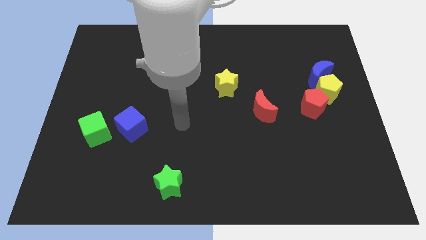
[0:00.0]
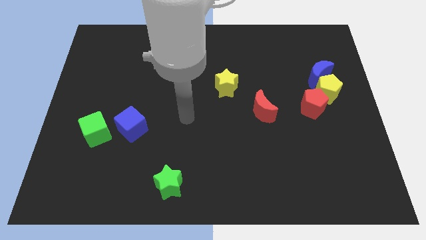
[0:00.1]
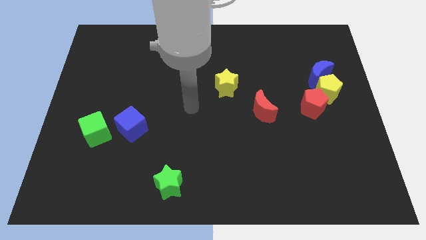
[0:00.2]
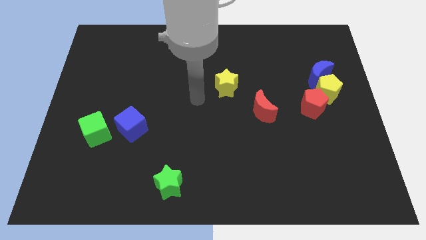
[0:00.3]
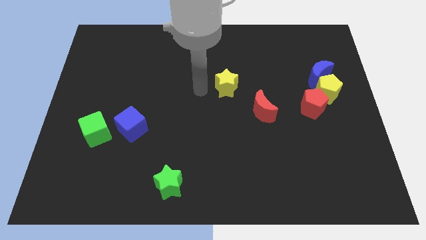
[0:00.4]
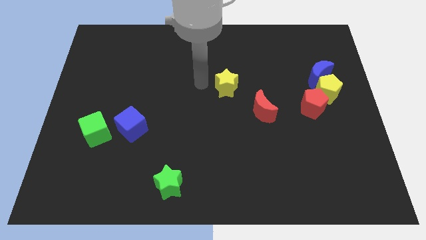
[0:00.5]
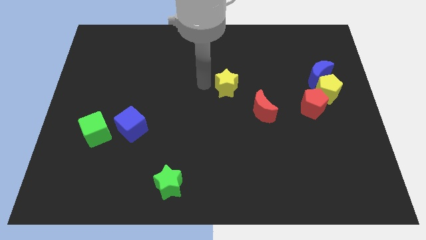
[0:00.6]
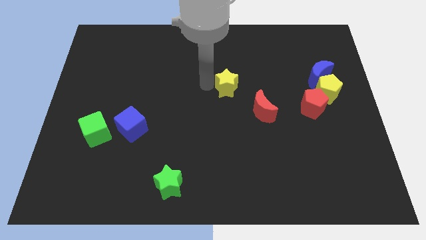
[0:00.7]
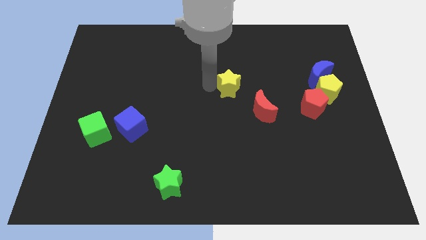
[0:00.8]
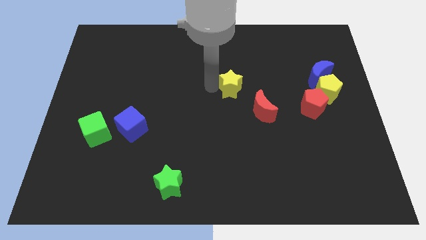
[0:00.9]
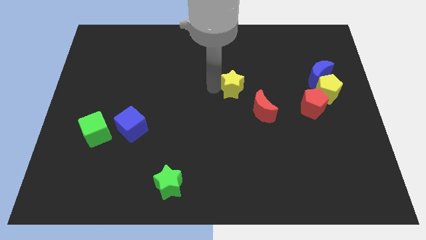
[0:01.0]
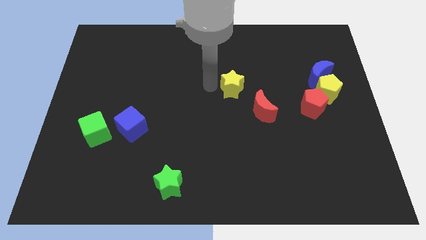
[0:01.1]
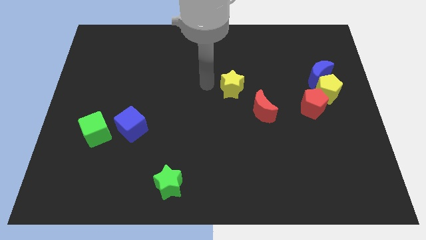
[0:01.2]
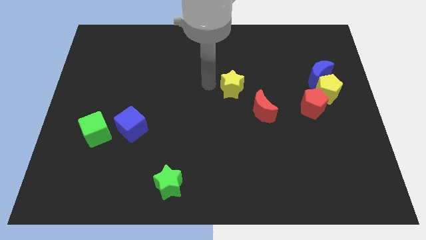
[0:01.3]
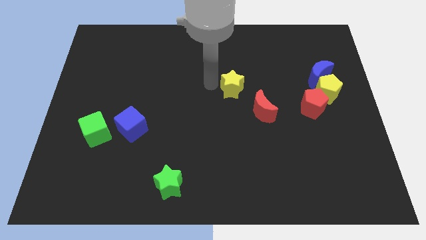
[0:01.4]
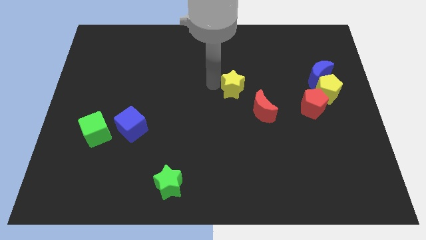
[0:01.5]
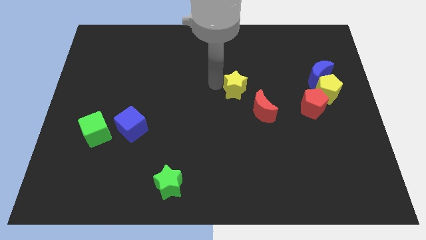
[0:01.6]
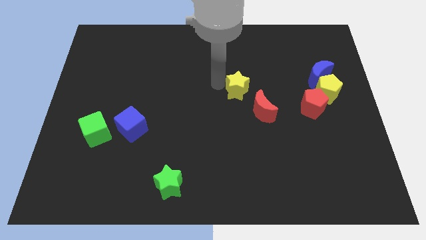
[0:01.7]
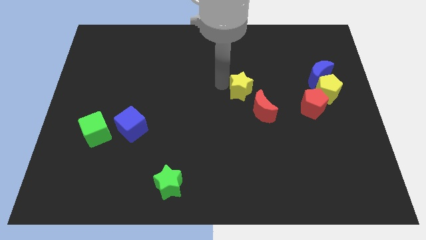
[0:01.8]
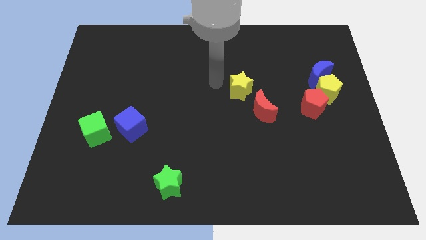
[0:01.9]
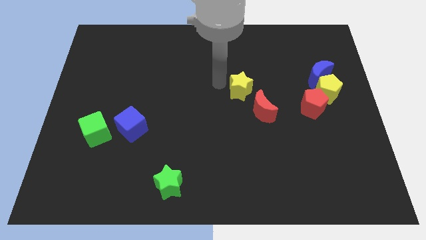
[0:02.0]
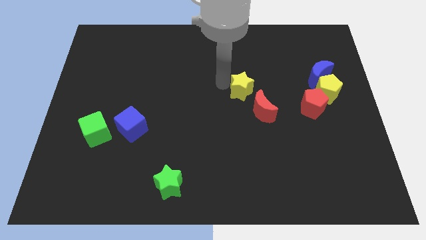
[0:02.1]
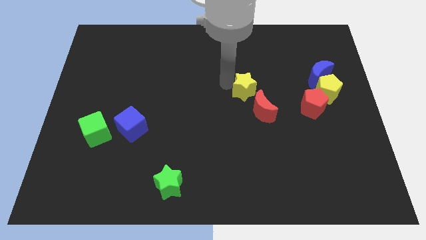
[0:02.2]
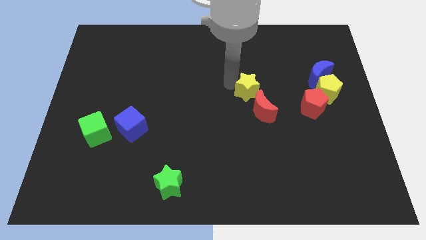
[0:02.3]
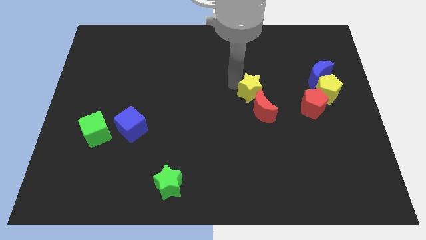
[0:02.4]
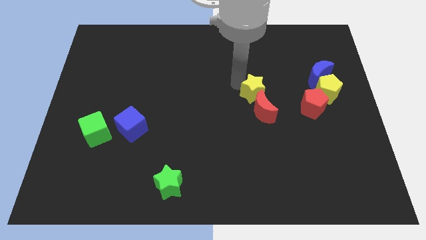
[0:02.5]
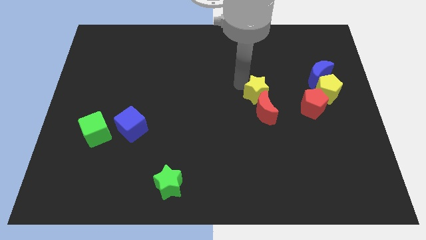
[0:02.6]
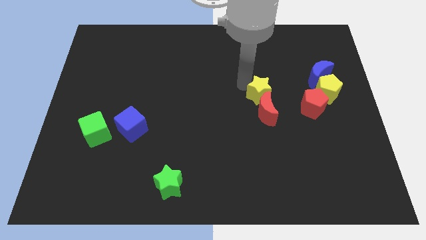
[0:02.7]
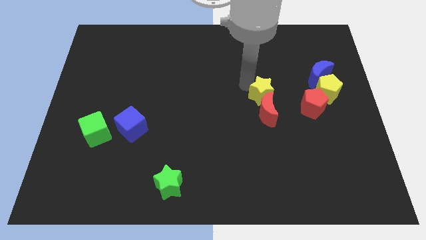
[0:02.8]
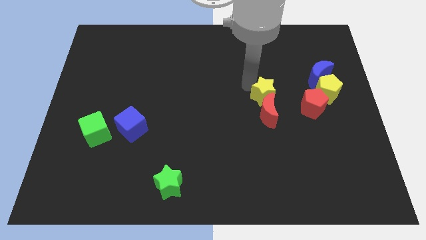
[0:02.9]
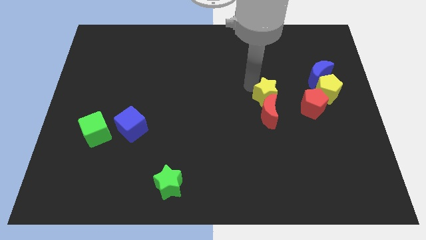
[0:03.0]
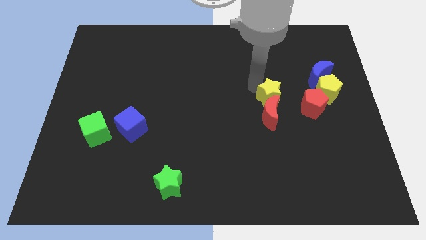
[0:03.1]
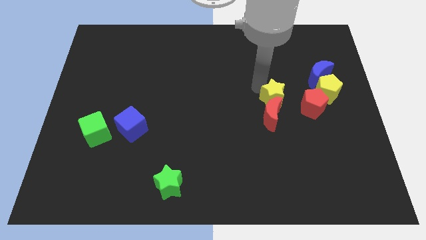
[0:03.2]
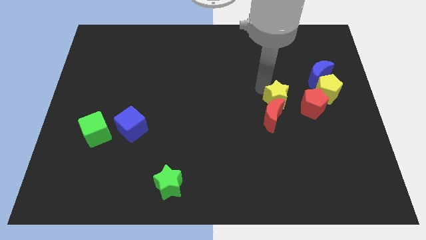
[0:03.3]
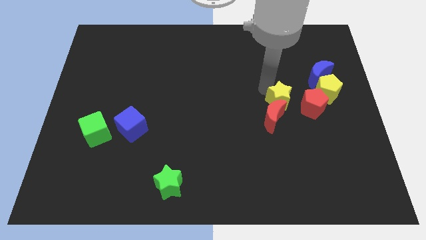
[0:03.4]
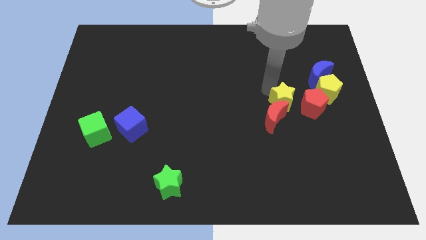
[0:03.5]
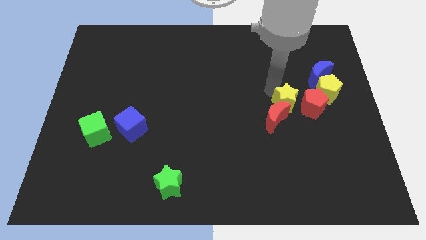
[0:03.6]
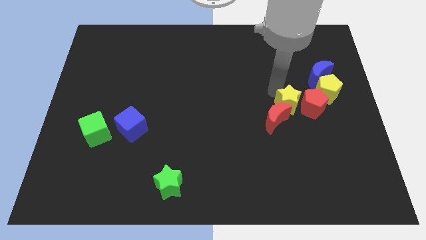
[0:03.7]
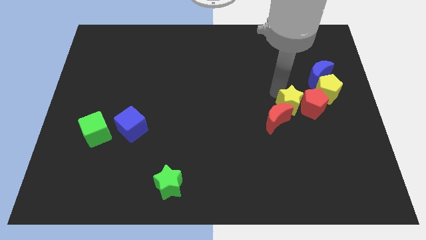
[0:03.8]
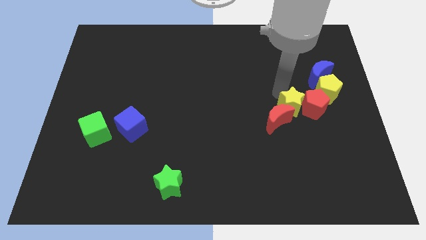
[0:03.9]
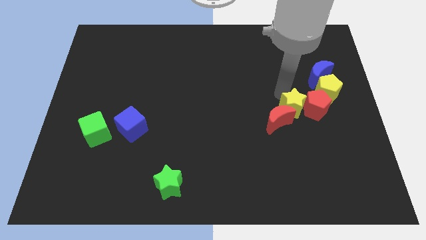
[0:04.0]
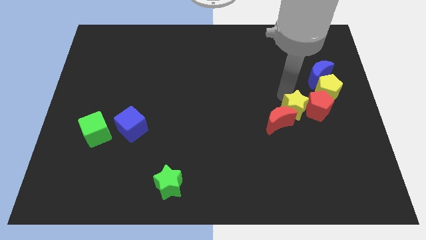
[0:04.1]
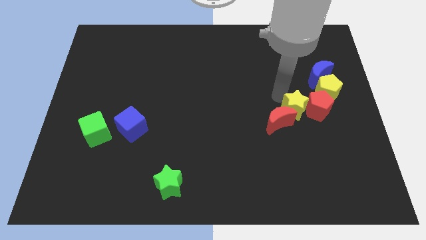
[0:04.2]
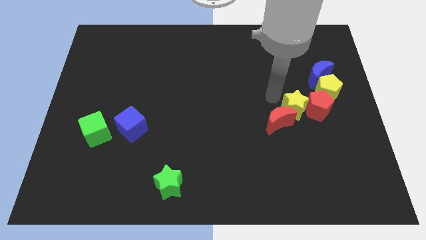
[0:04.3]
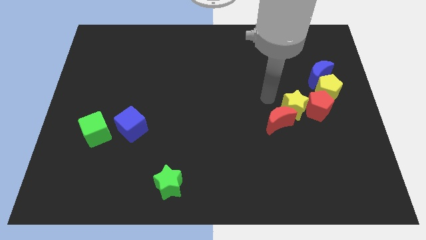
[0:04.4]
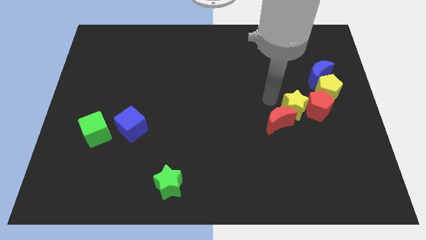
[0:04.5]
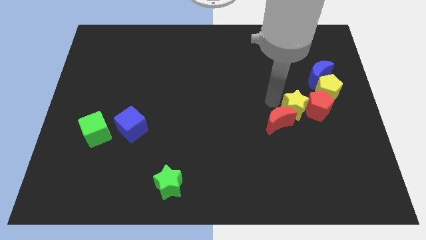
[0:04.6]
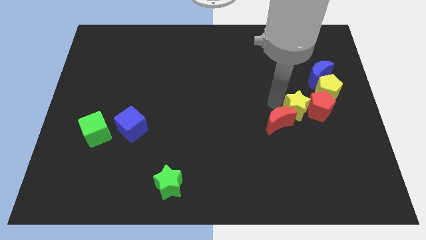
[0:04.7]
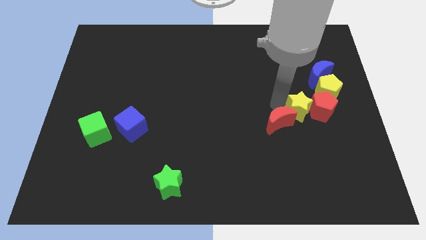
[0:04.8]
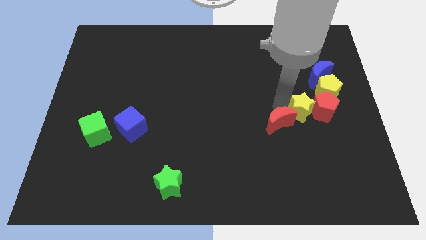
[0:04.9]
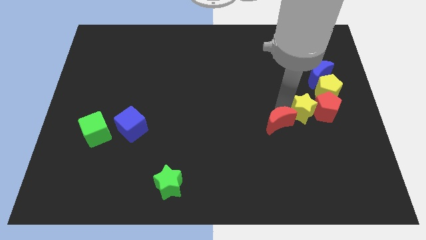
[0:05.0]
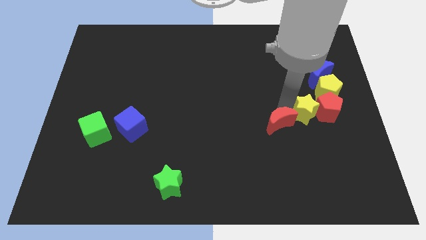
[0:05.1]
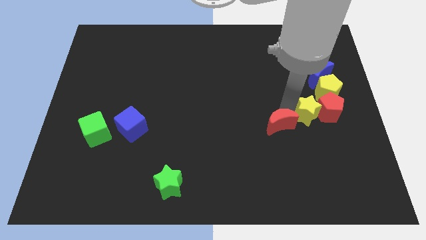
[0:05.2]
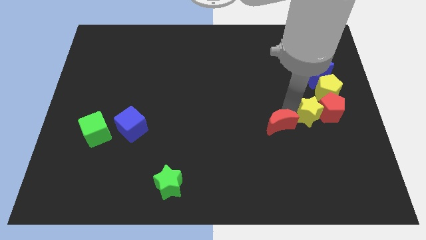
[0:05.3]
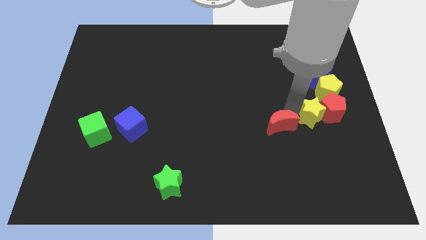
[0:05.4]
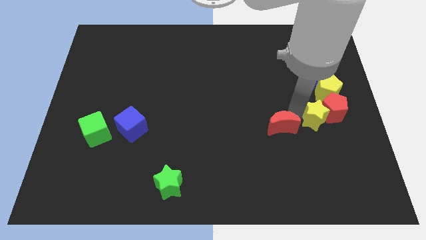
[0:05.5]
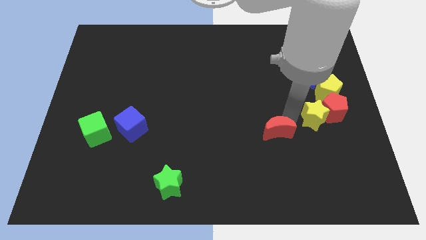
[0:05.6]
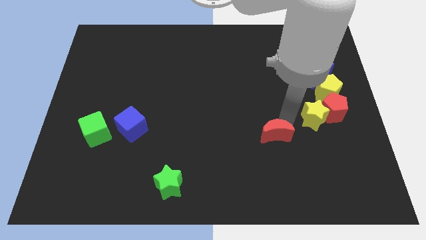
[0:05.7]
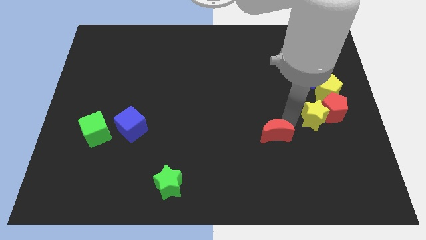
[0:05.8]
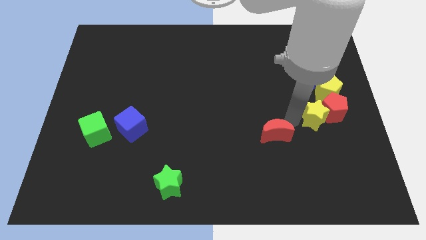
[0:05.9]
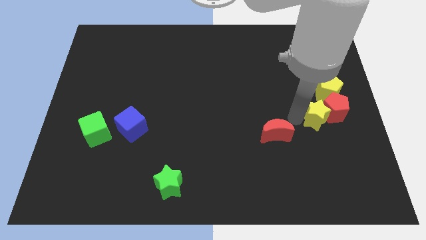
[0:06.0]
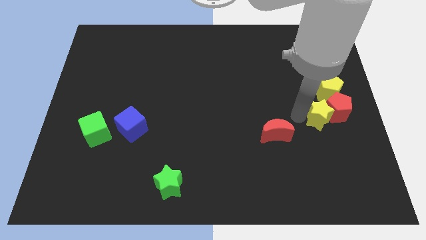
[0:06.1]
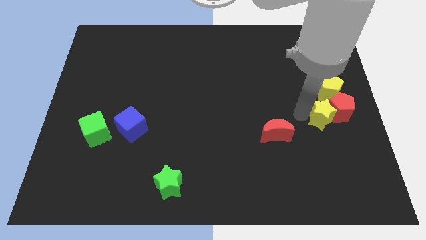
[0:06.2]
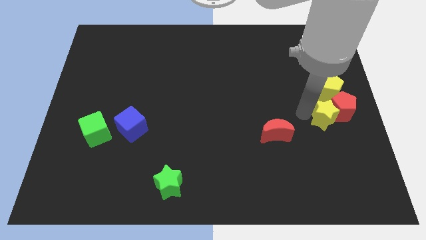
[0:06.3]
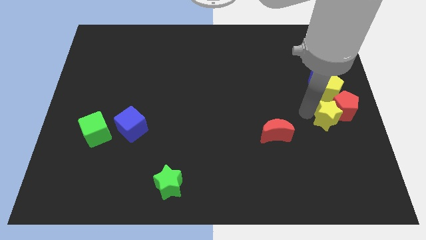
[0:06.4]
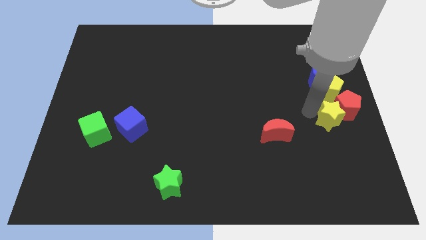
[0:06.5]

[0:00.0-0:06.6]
move the yellow star to the right side of the board
